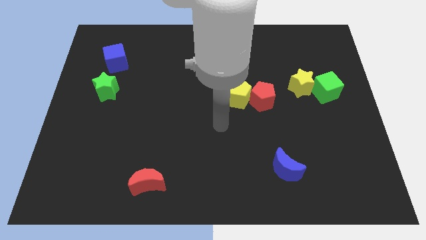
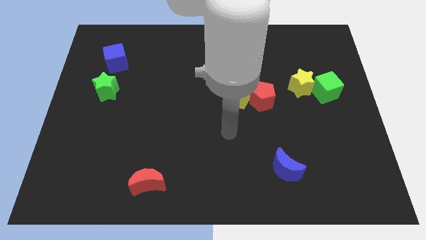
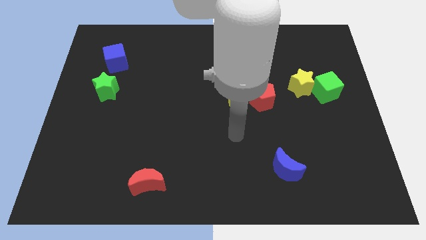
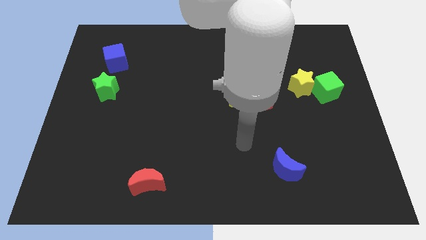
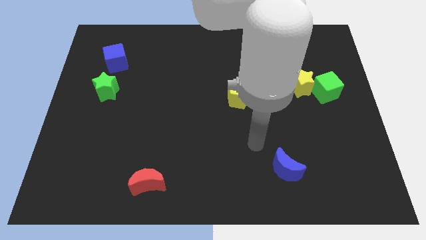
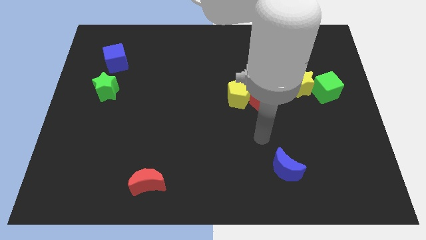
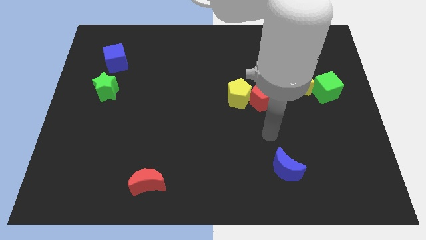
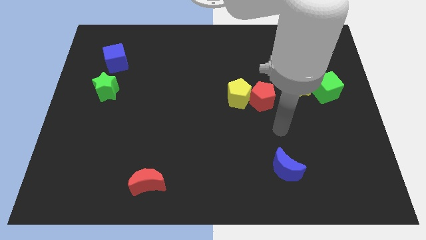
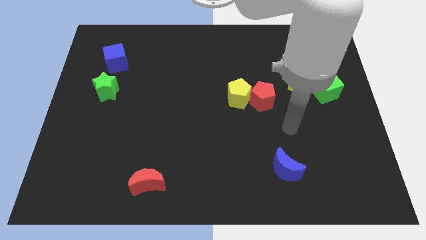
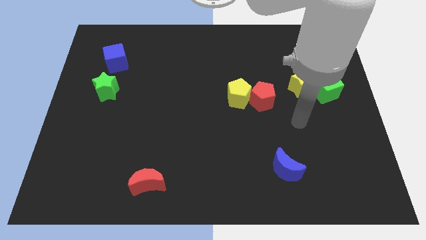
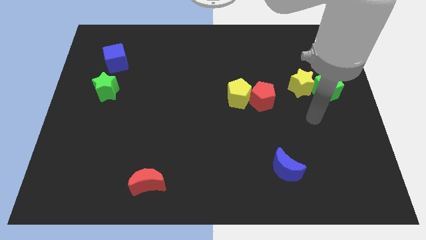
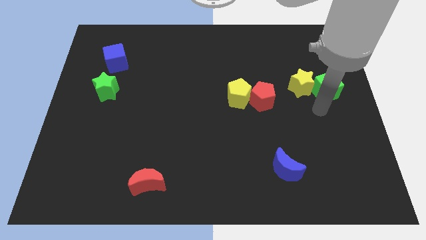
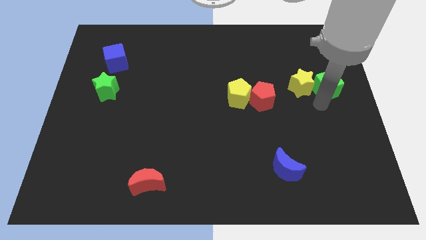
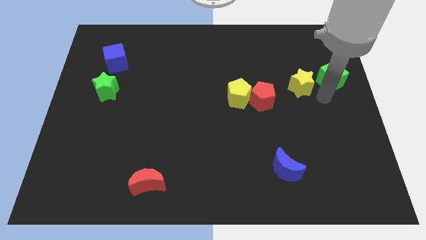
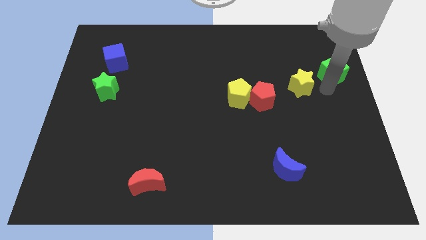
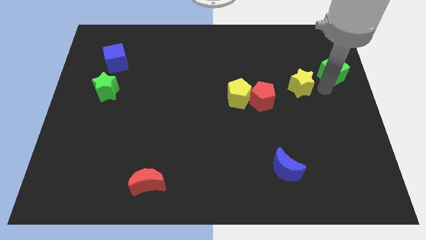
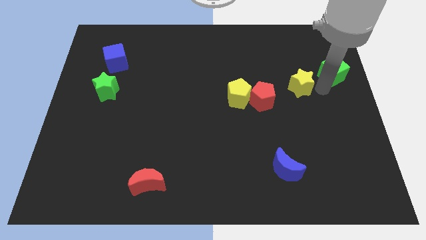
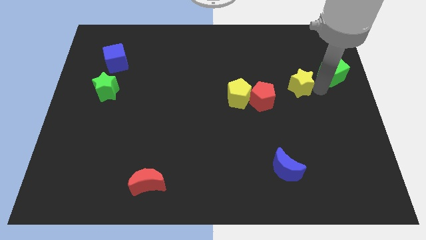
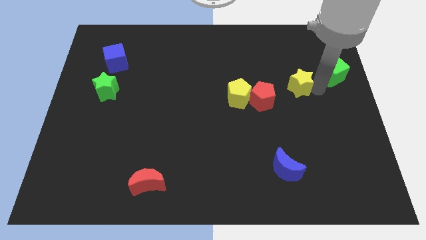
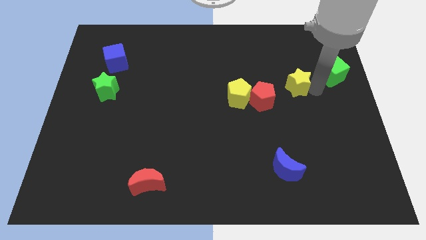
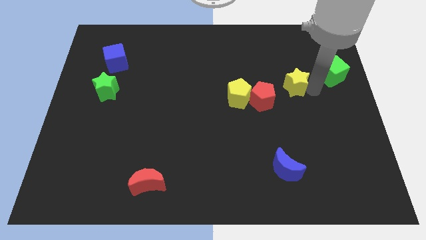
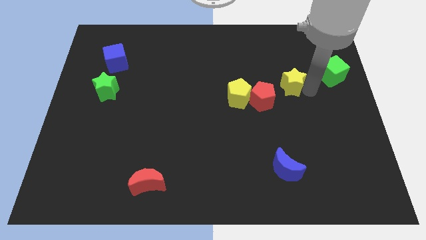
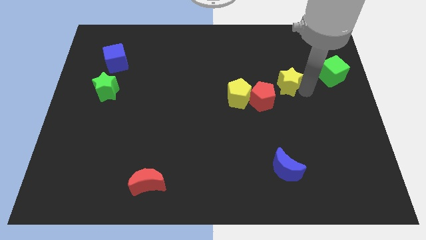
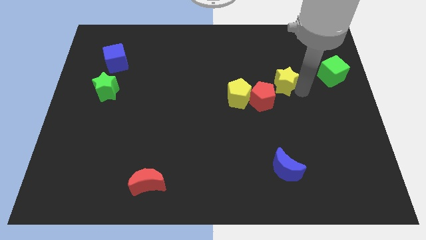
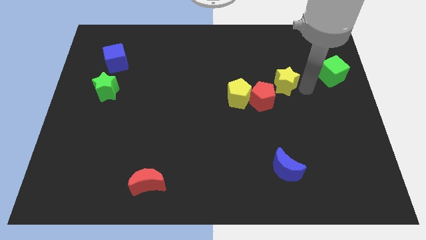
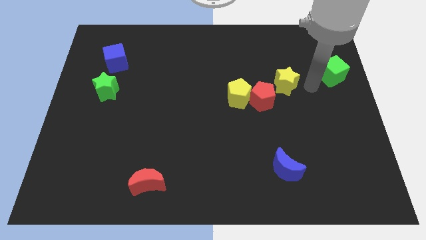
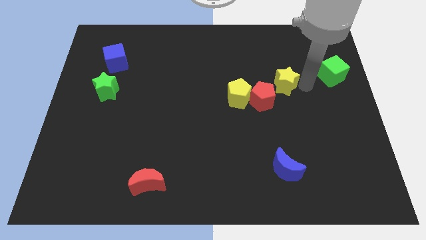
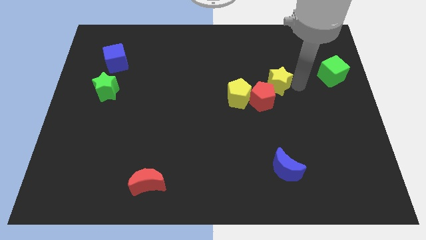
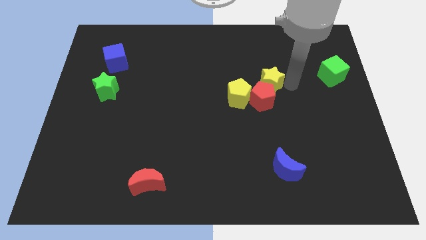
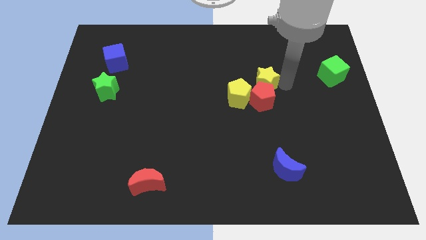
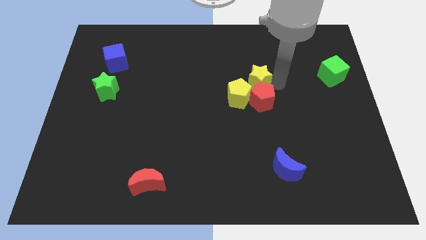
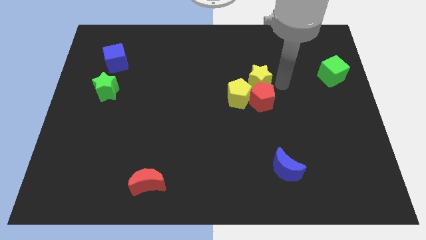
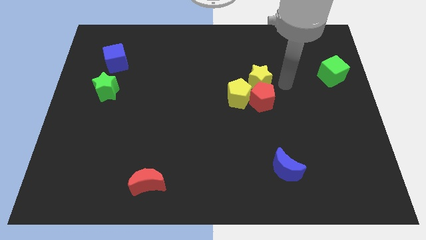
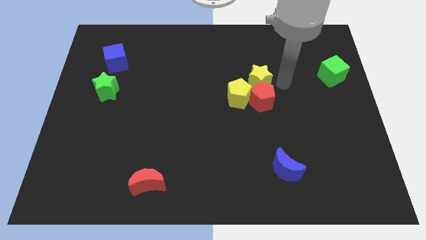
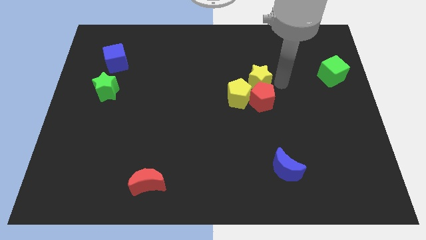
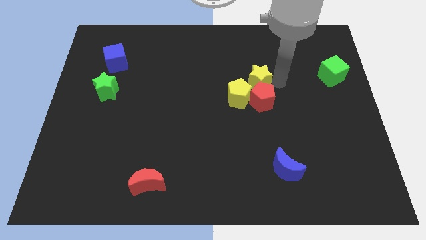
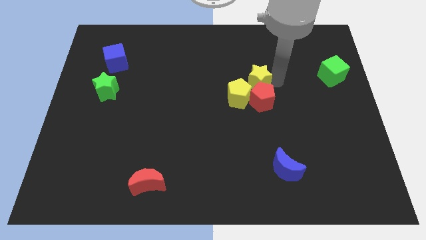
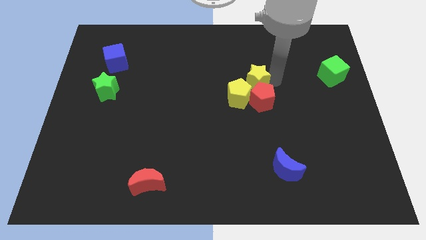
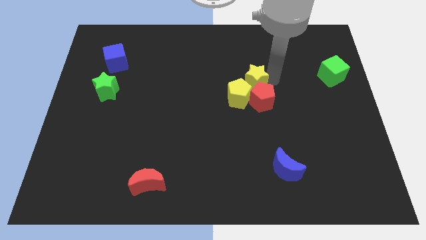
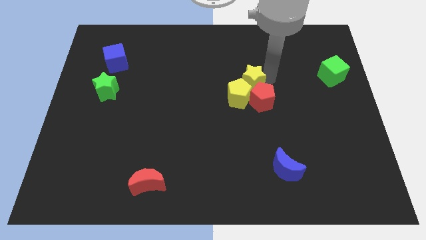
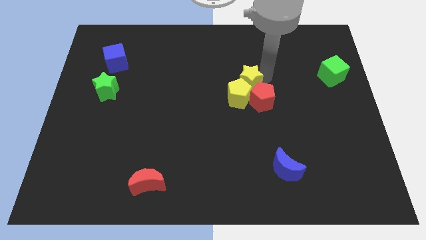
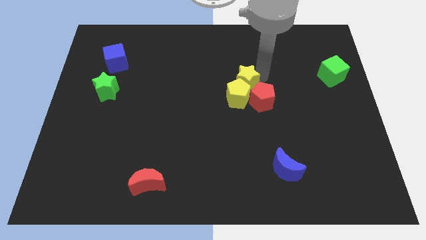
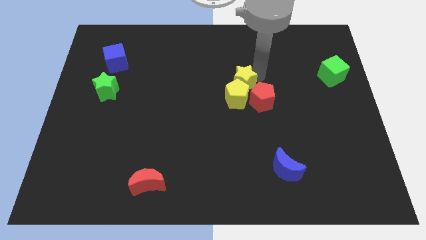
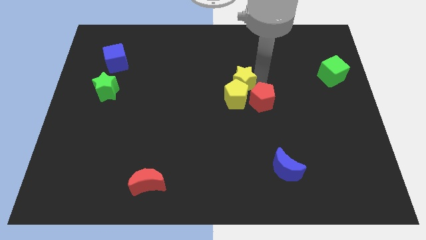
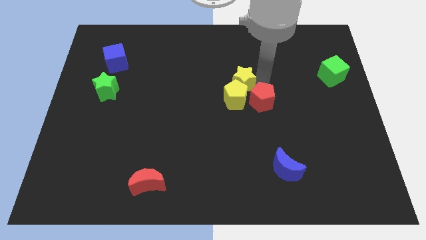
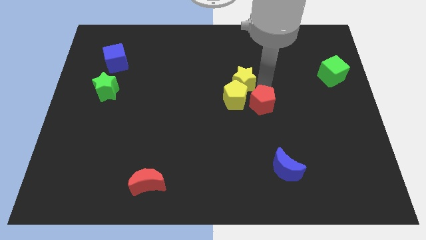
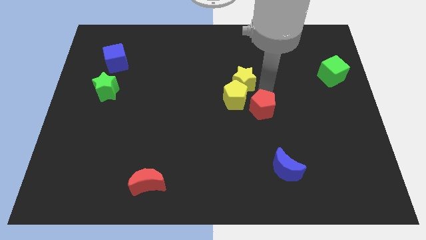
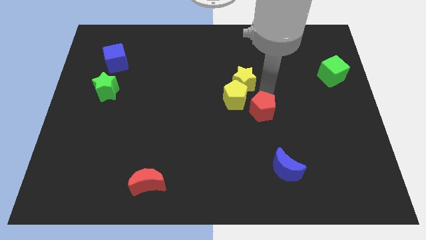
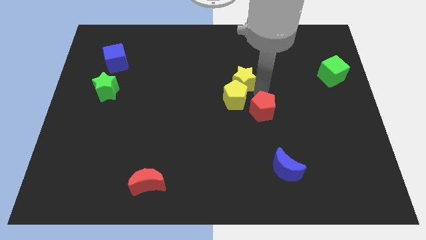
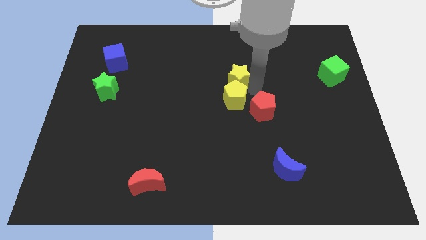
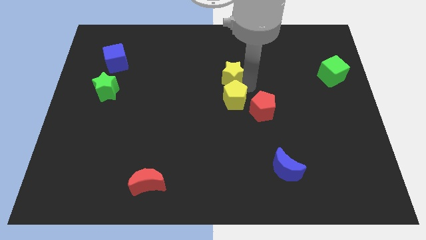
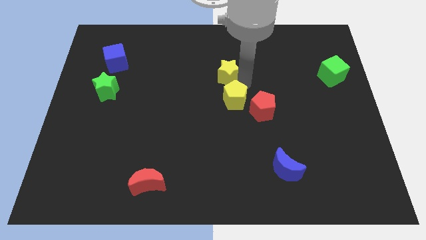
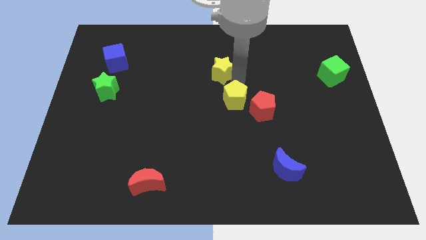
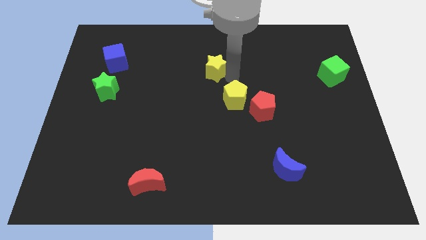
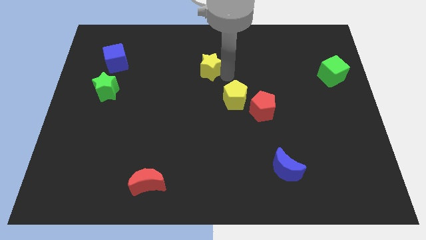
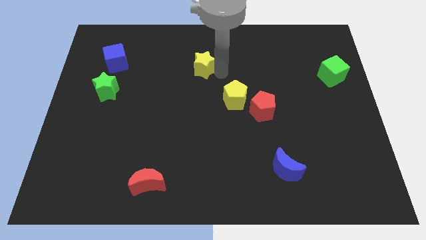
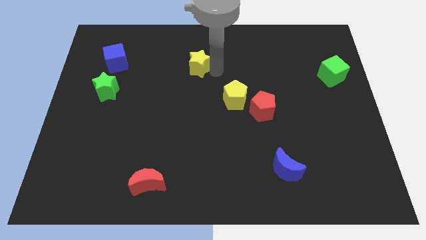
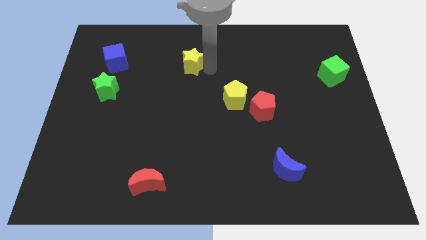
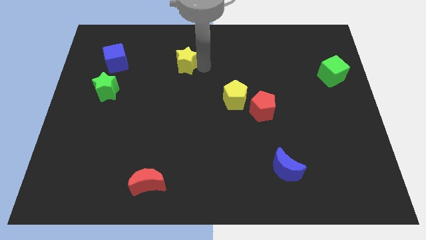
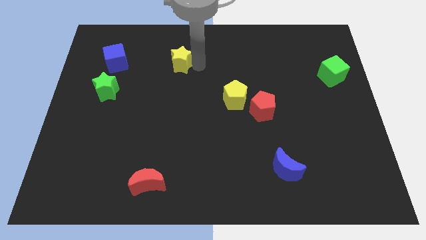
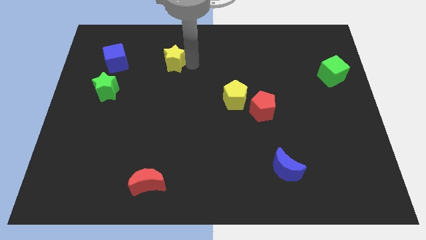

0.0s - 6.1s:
slide the yellow star to the right side of the blue cube

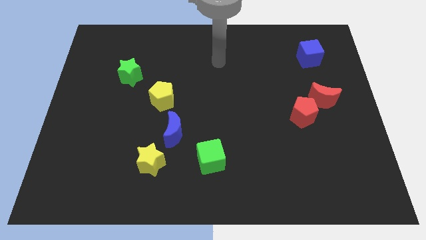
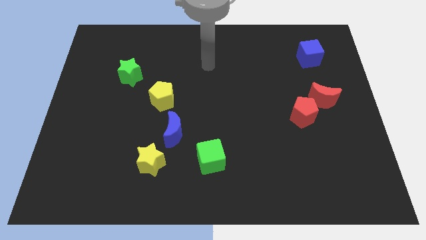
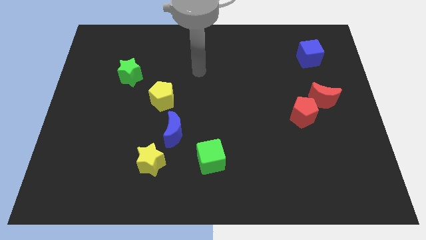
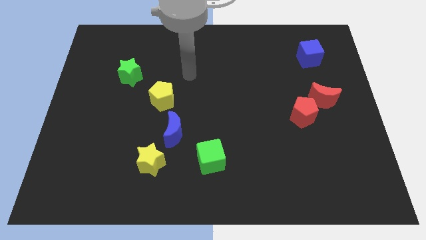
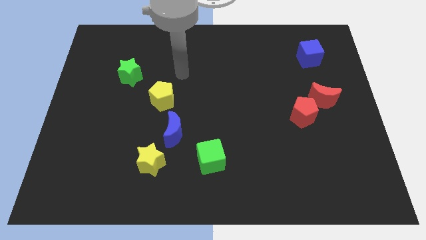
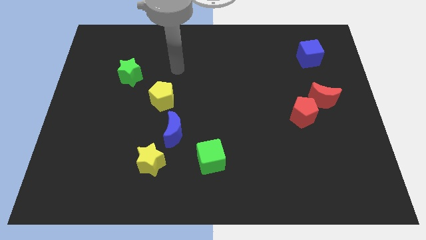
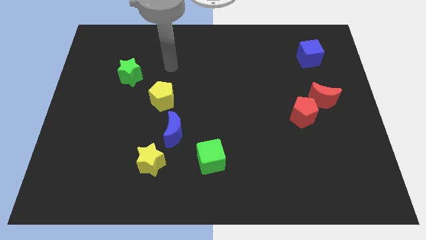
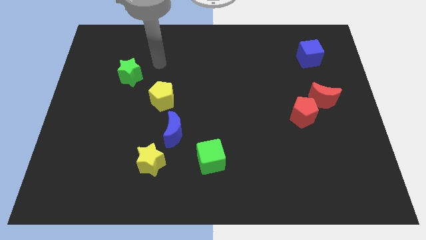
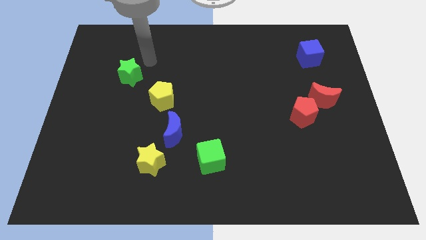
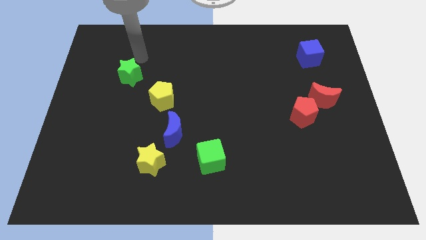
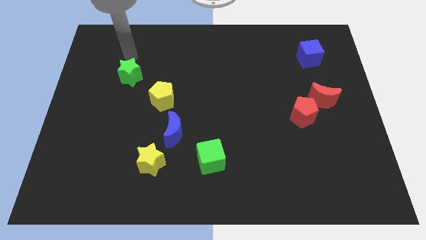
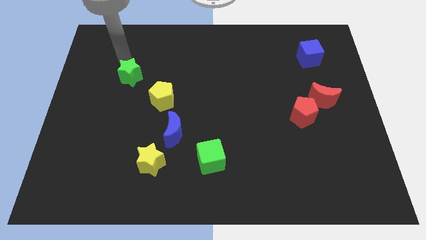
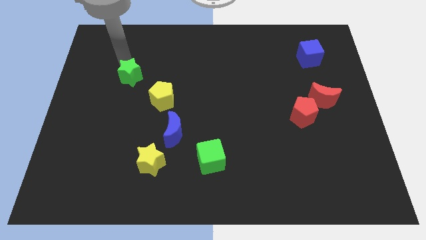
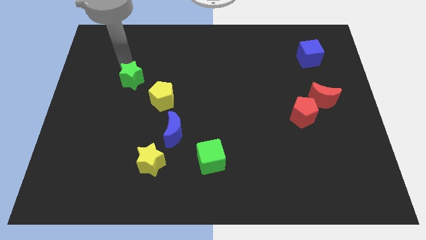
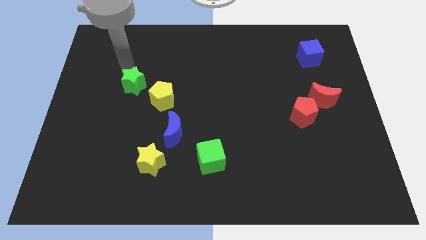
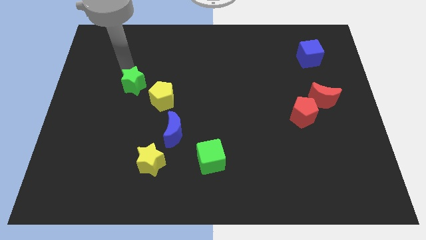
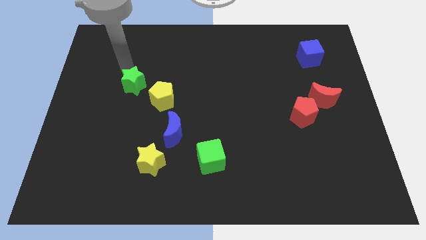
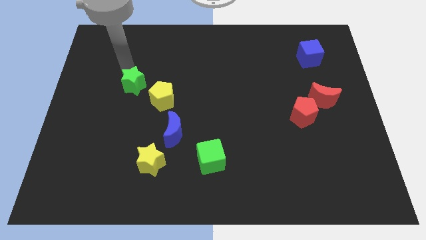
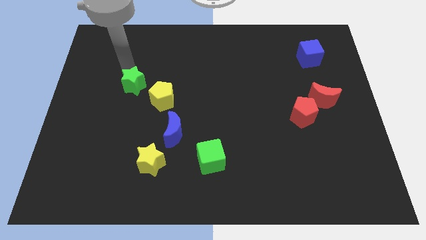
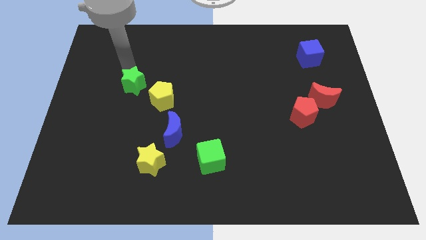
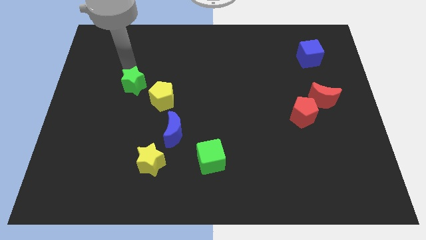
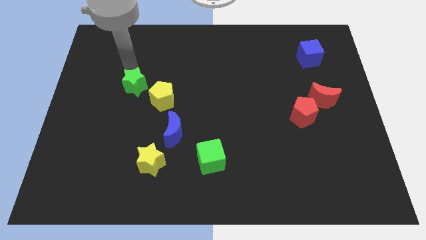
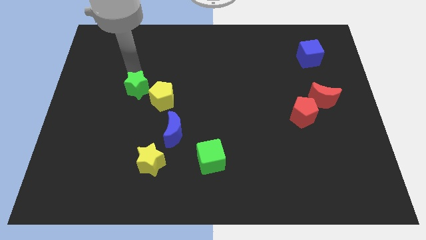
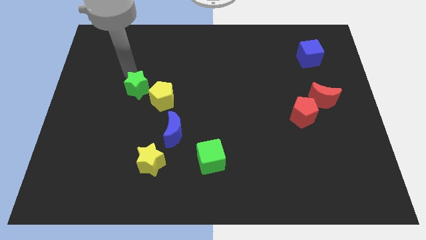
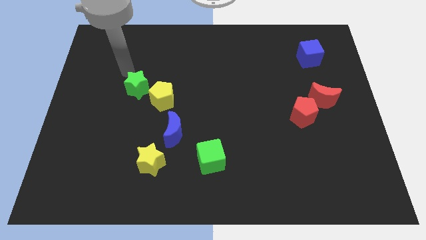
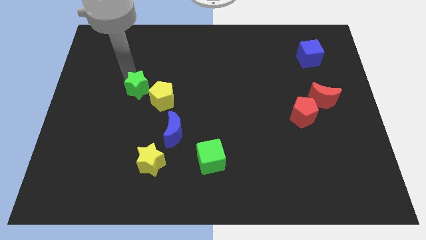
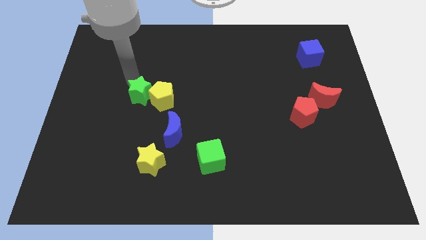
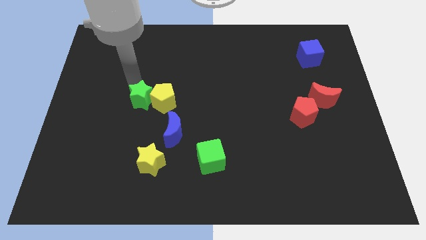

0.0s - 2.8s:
move the green star to the top left side of the blue moon
